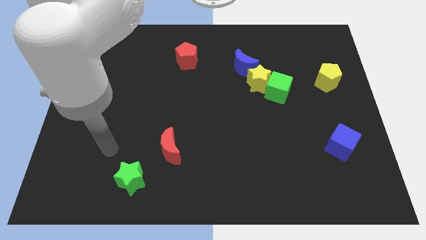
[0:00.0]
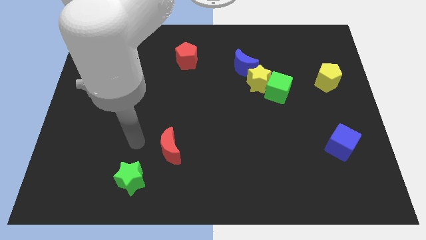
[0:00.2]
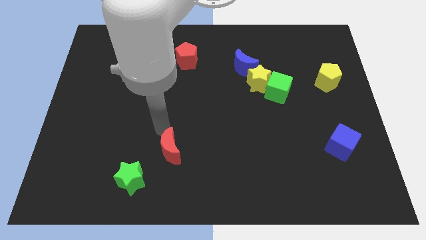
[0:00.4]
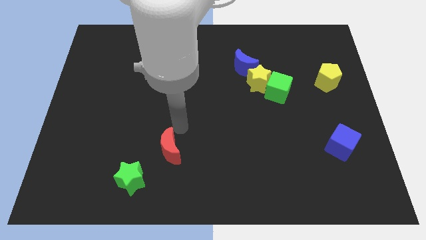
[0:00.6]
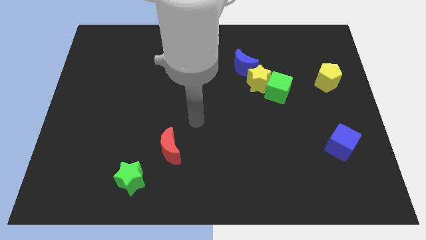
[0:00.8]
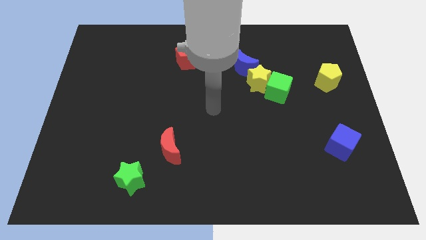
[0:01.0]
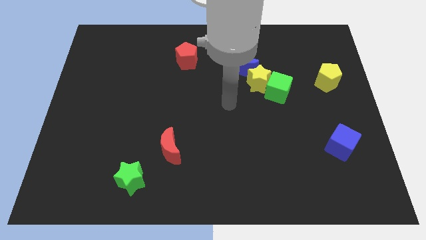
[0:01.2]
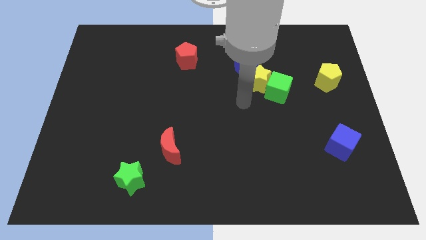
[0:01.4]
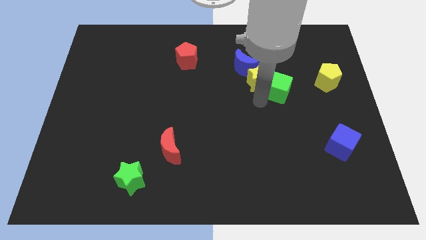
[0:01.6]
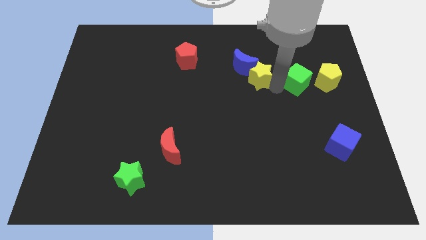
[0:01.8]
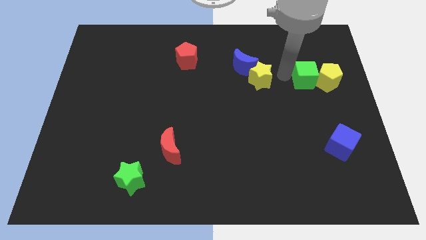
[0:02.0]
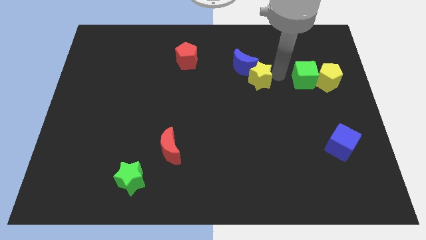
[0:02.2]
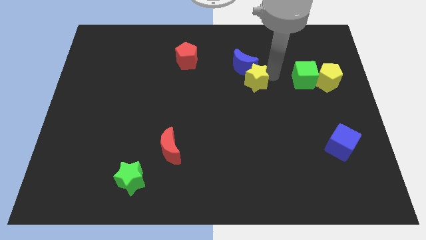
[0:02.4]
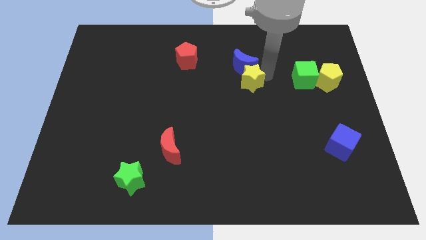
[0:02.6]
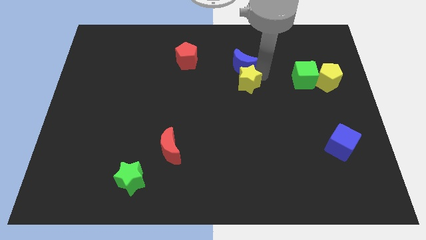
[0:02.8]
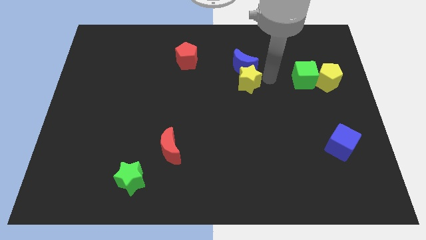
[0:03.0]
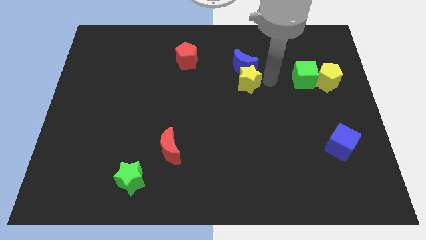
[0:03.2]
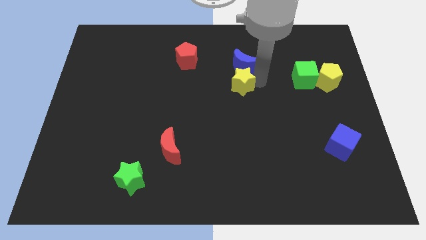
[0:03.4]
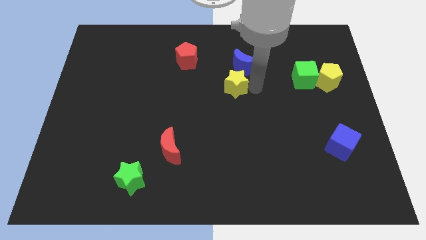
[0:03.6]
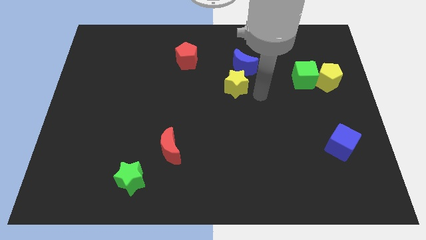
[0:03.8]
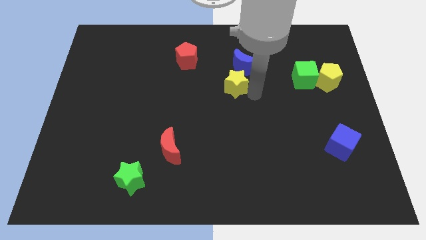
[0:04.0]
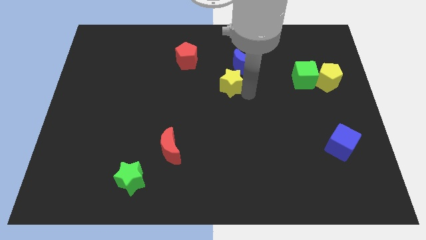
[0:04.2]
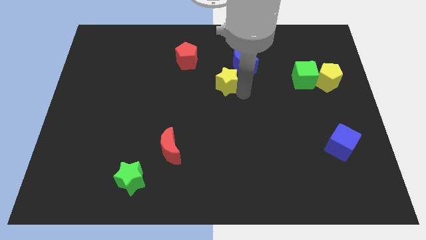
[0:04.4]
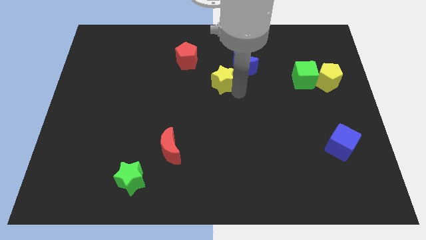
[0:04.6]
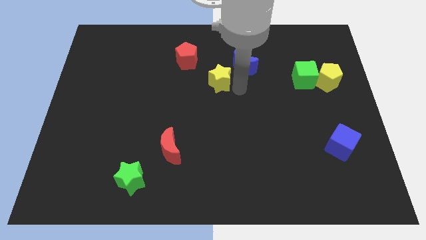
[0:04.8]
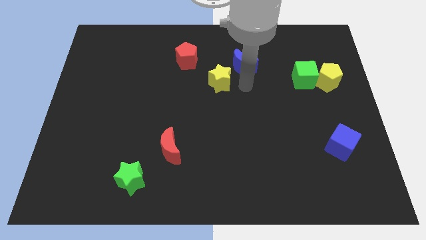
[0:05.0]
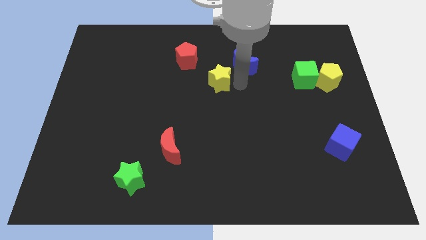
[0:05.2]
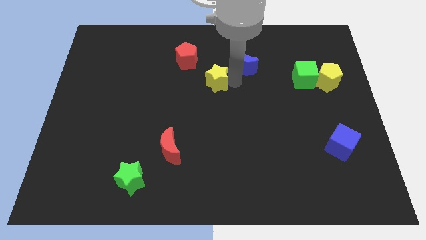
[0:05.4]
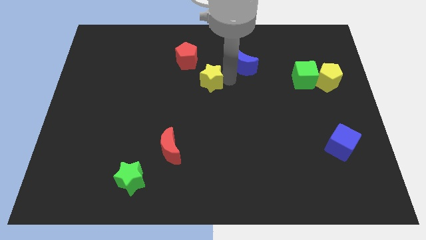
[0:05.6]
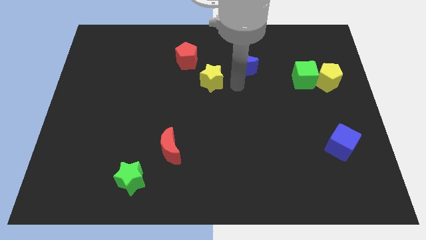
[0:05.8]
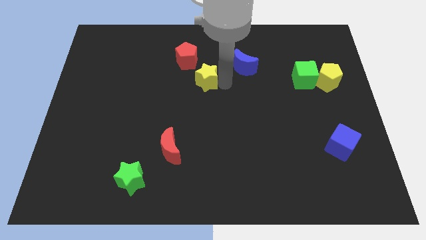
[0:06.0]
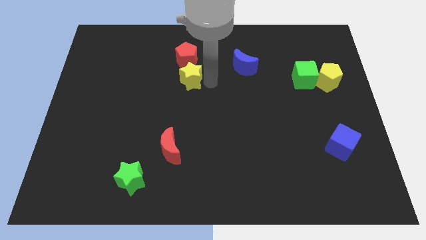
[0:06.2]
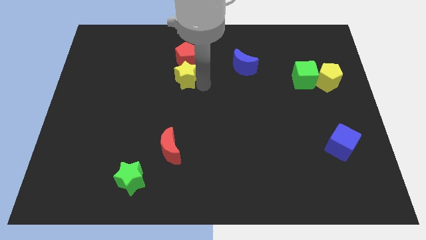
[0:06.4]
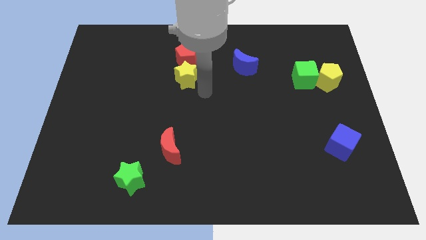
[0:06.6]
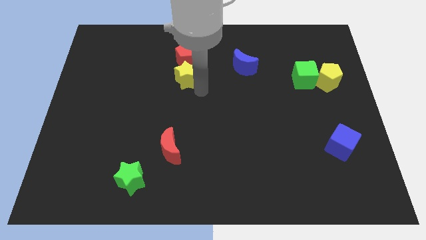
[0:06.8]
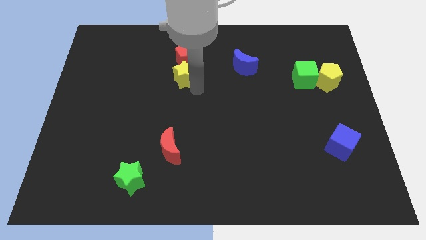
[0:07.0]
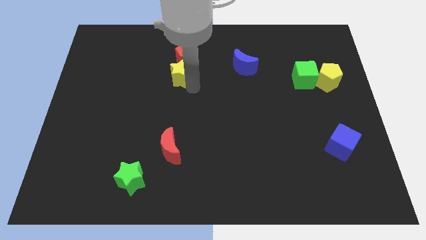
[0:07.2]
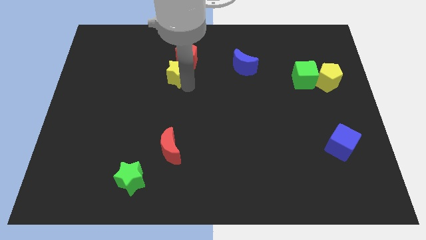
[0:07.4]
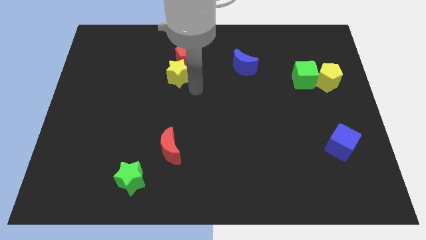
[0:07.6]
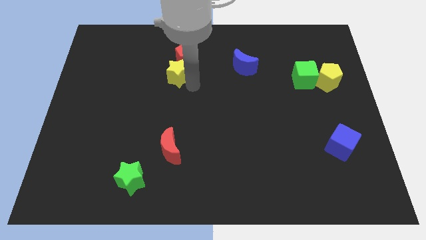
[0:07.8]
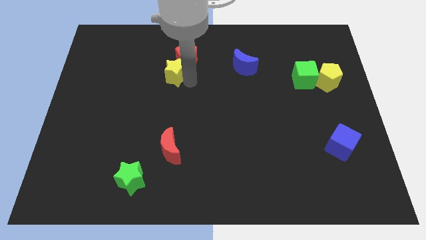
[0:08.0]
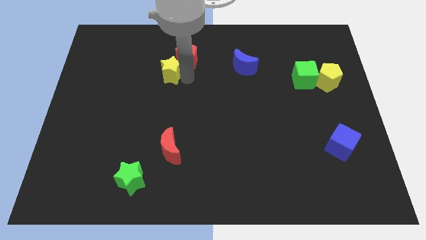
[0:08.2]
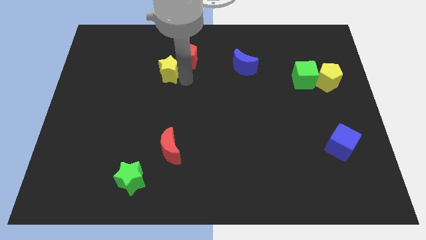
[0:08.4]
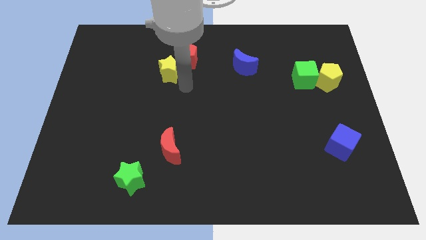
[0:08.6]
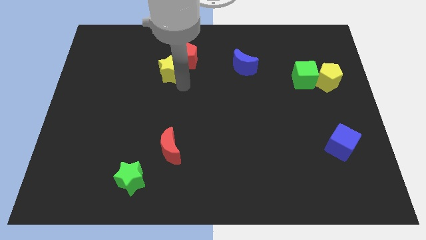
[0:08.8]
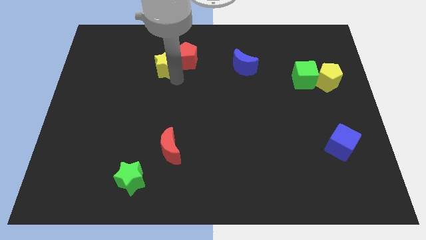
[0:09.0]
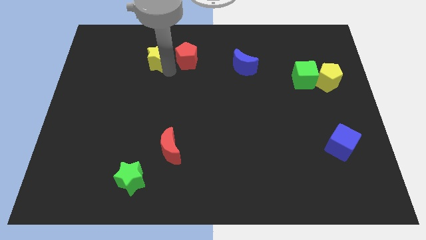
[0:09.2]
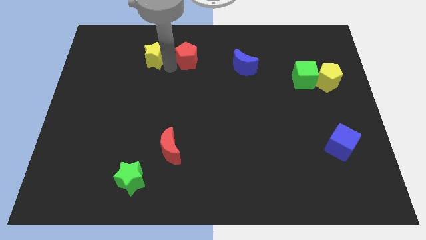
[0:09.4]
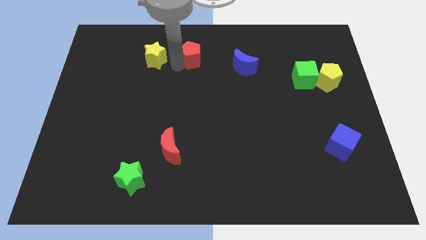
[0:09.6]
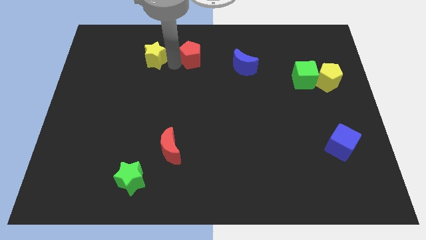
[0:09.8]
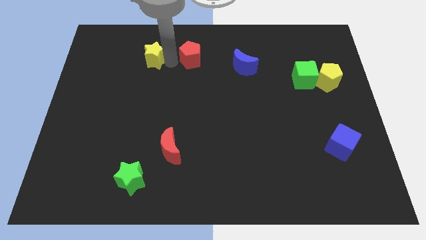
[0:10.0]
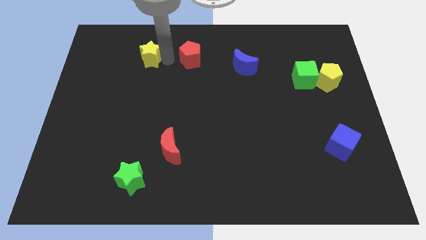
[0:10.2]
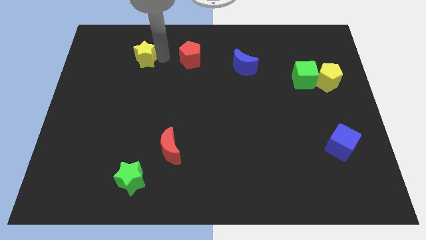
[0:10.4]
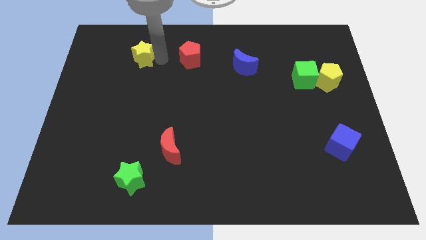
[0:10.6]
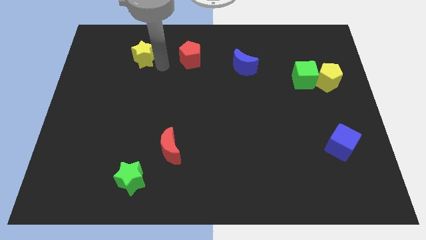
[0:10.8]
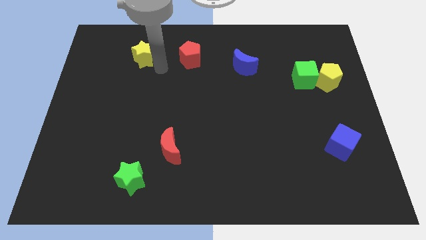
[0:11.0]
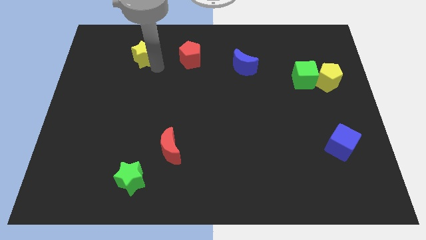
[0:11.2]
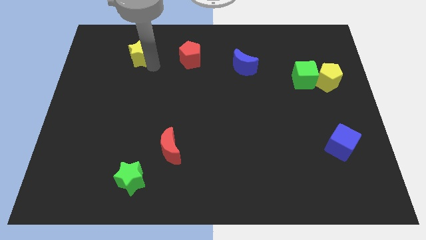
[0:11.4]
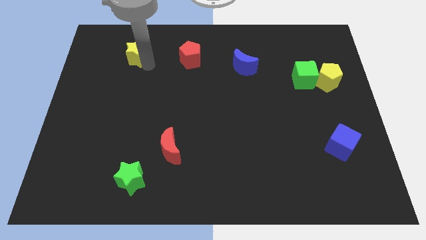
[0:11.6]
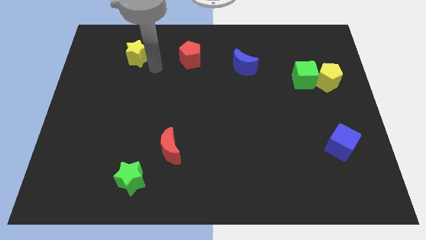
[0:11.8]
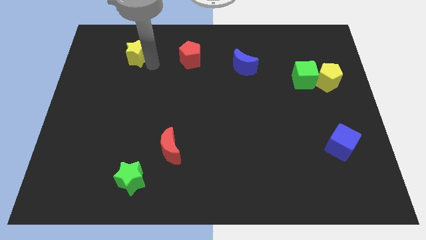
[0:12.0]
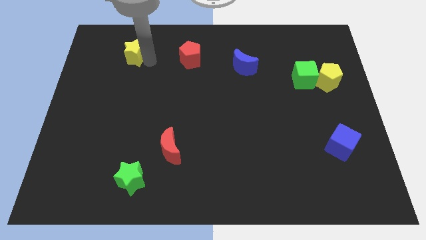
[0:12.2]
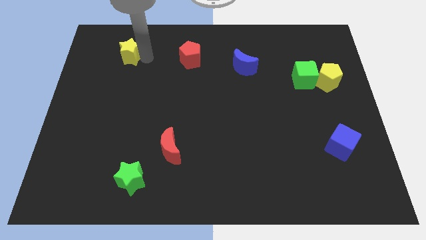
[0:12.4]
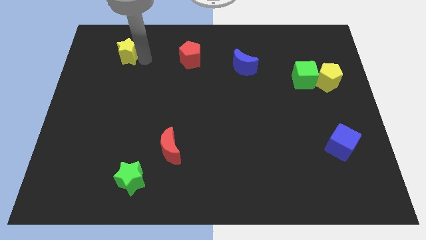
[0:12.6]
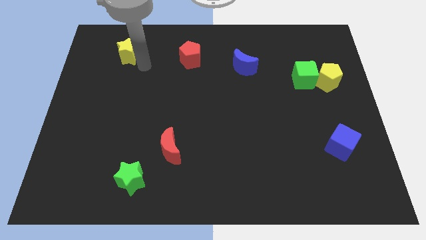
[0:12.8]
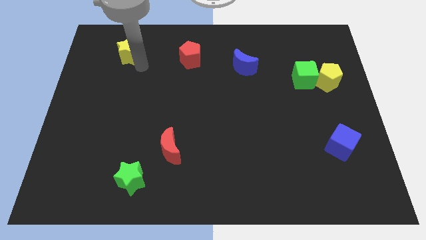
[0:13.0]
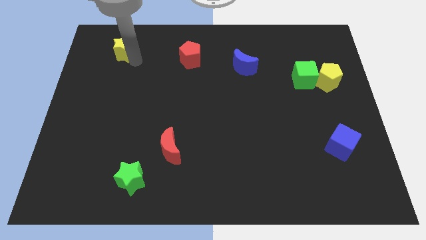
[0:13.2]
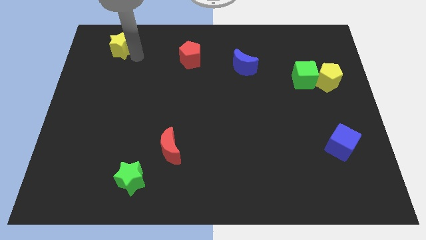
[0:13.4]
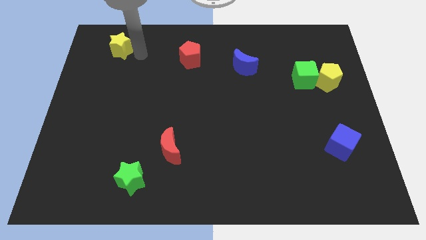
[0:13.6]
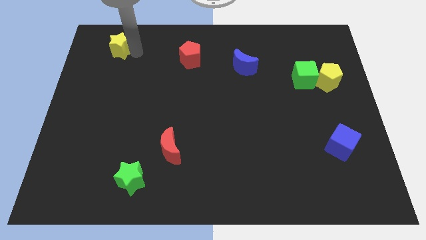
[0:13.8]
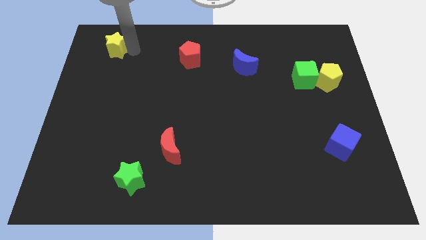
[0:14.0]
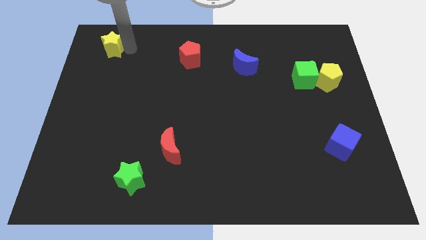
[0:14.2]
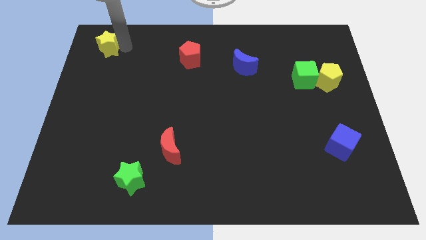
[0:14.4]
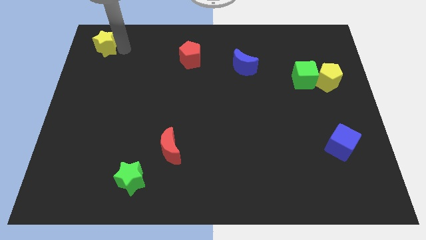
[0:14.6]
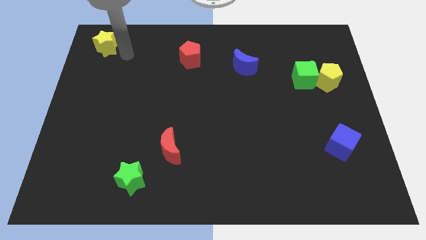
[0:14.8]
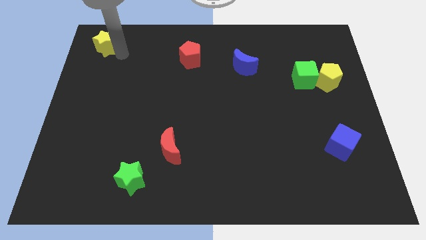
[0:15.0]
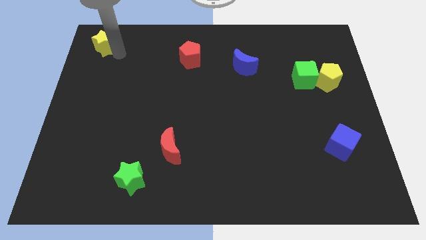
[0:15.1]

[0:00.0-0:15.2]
move the yellow star to the top left
